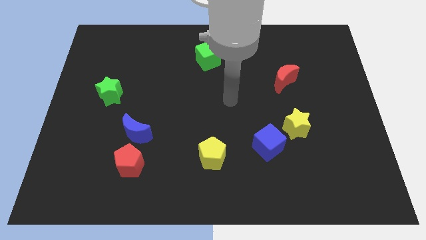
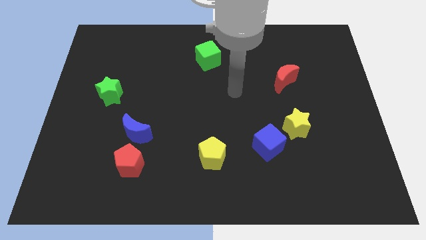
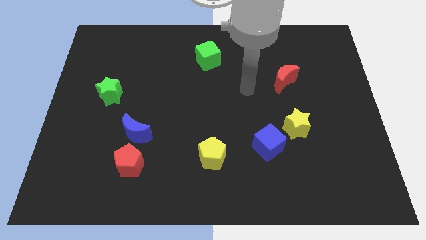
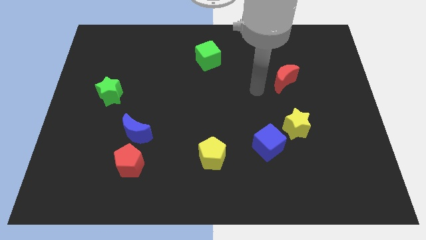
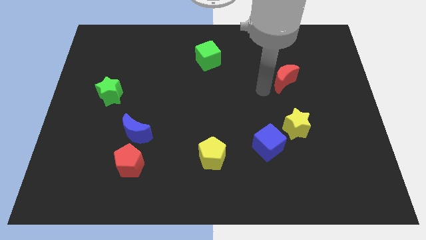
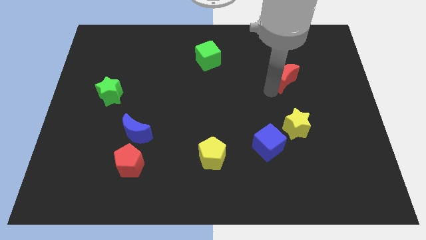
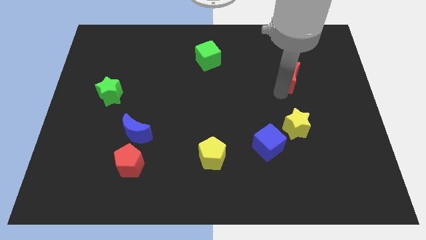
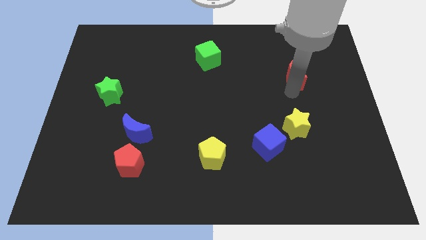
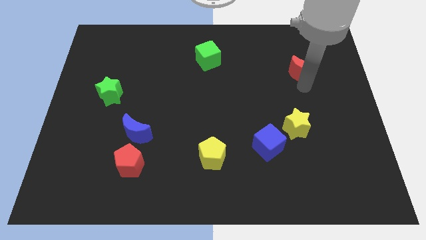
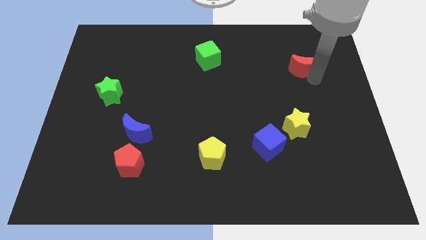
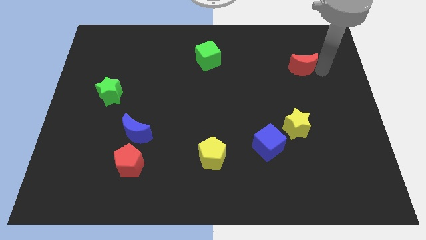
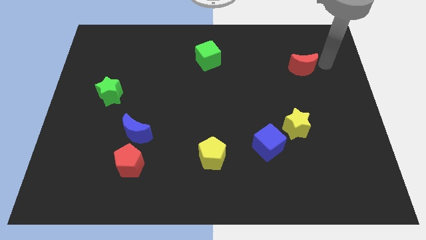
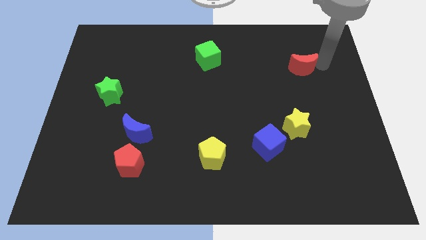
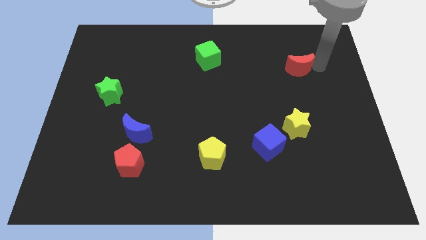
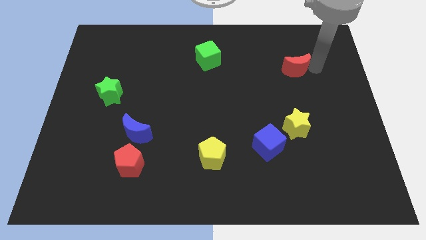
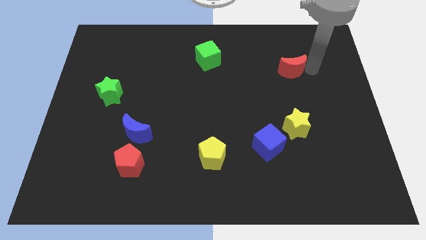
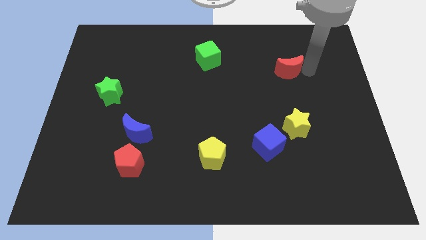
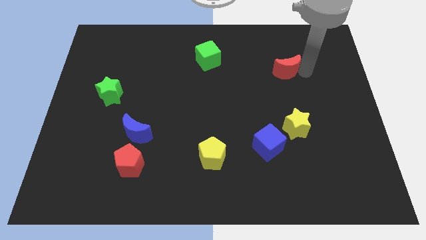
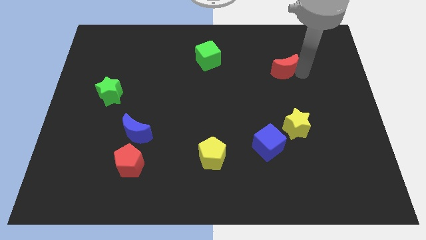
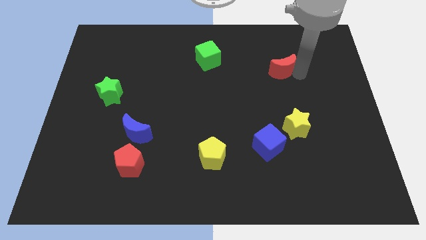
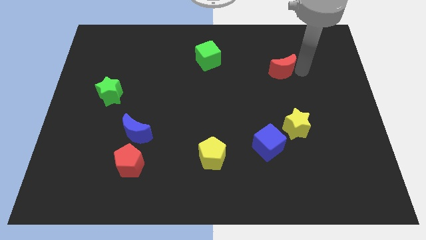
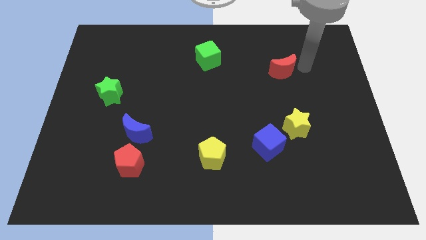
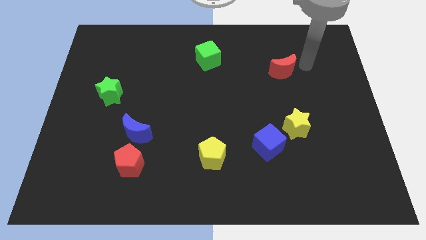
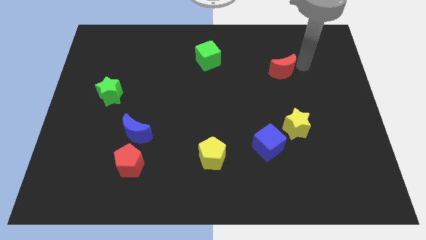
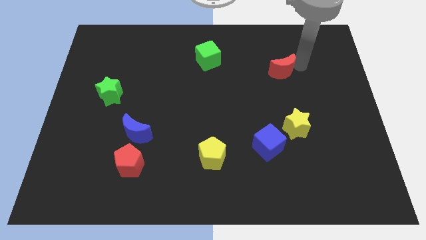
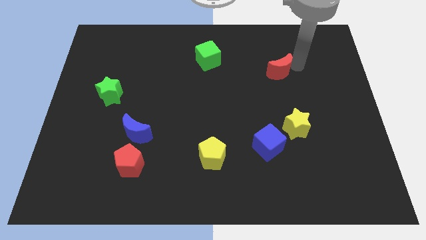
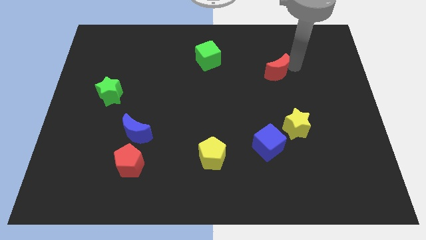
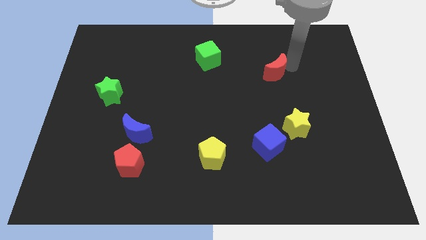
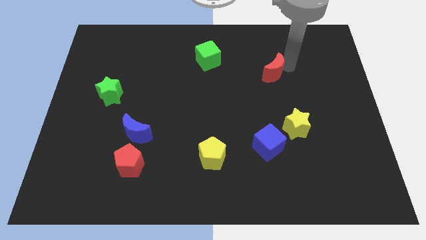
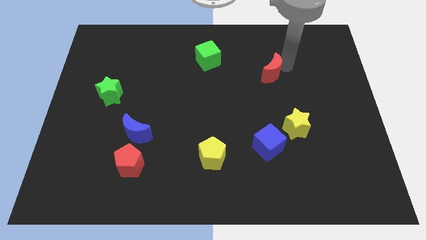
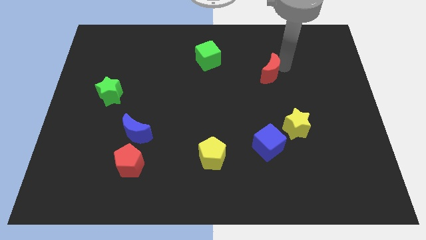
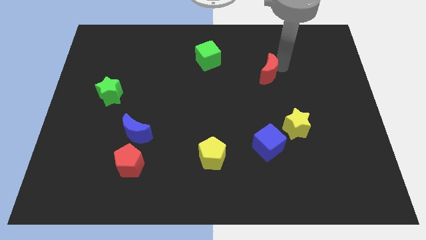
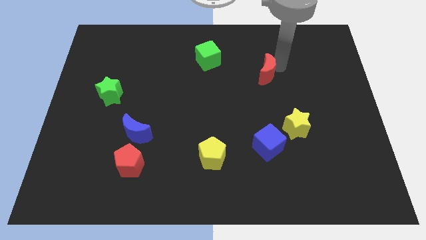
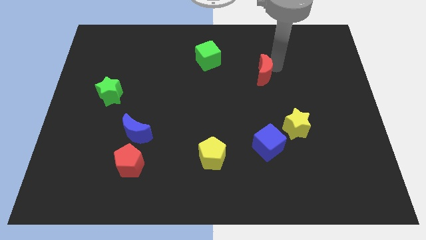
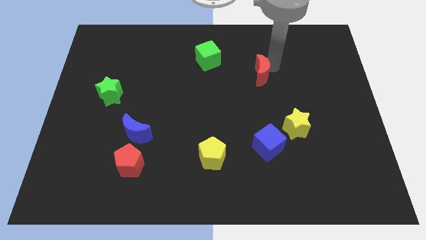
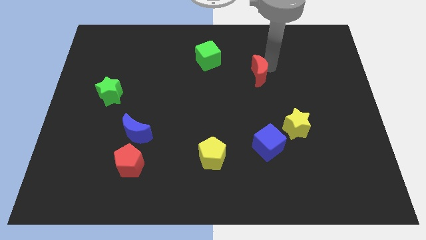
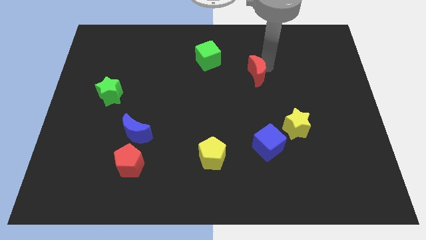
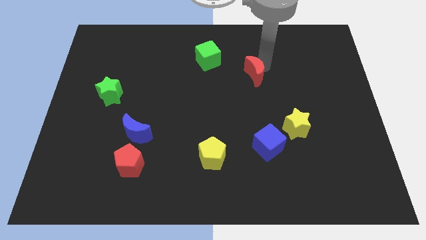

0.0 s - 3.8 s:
slide the red moon slightly left

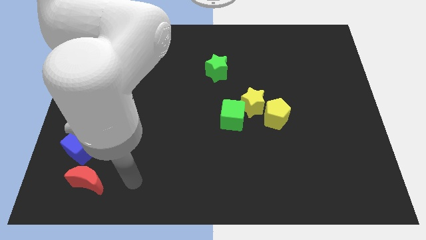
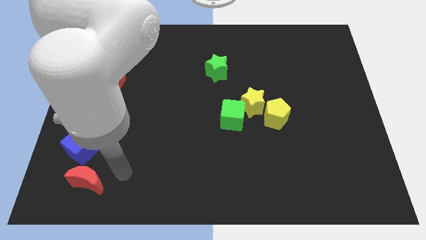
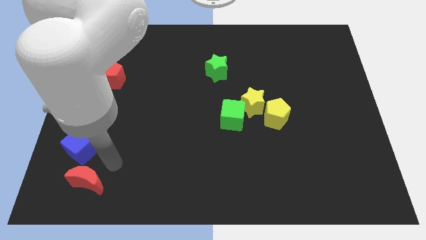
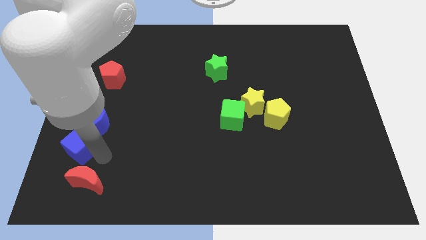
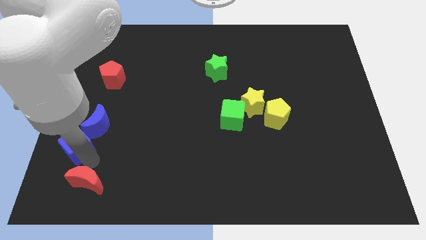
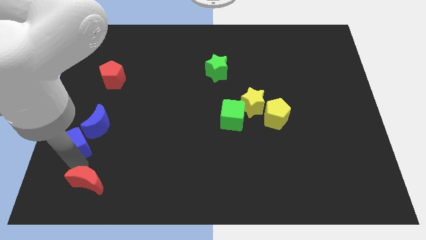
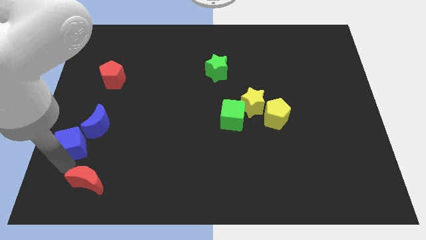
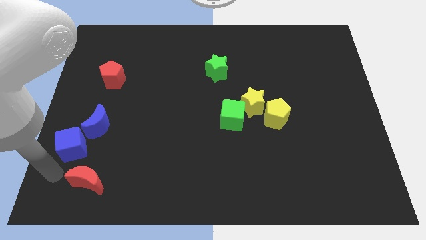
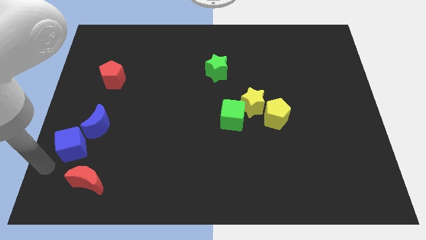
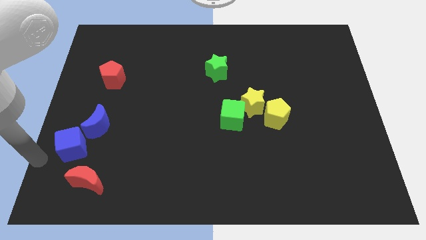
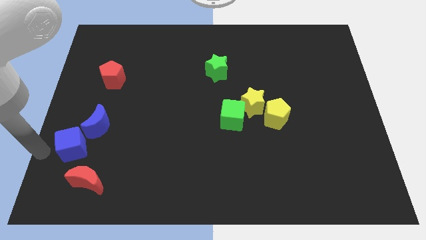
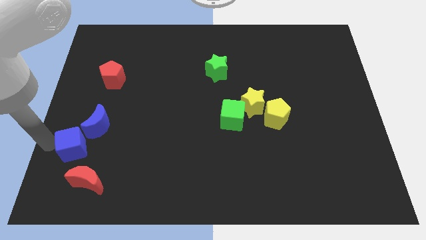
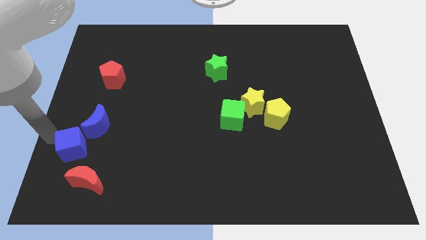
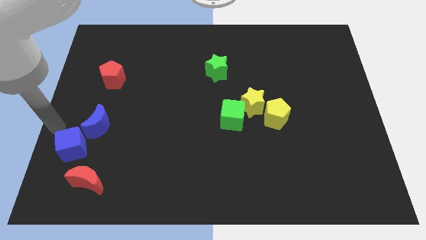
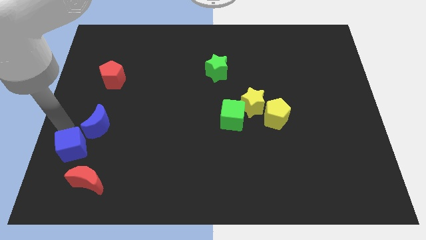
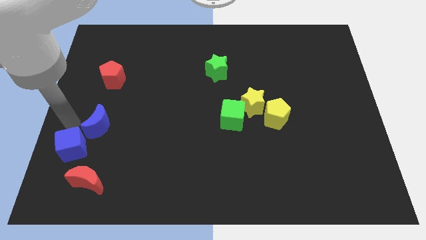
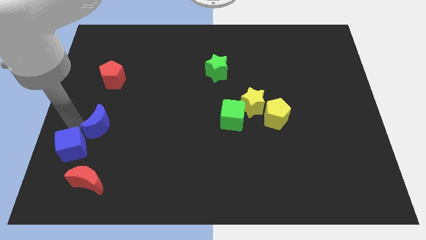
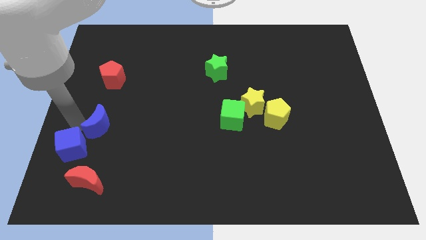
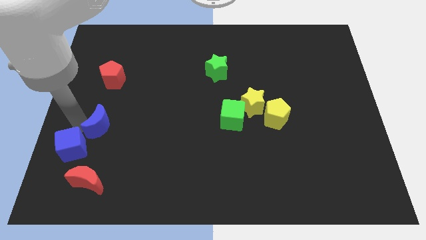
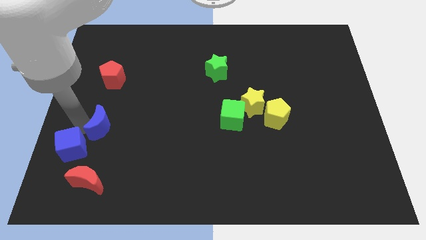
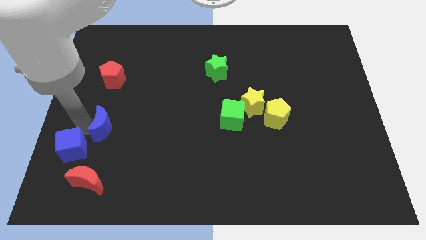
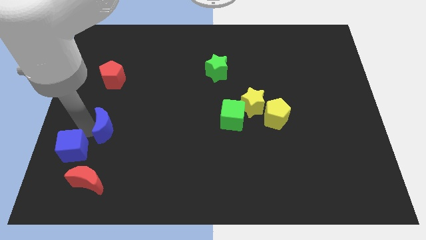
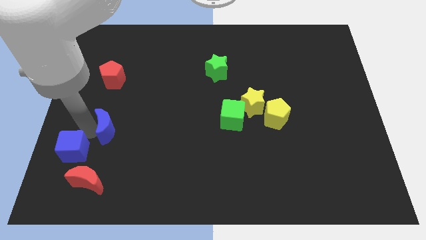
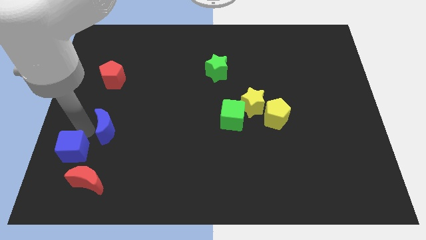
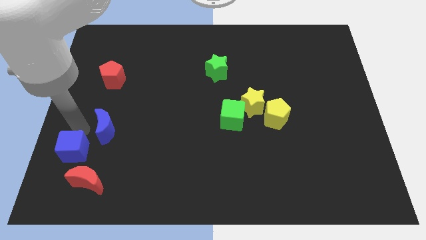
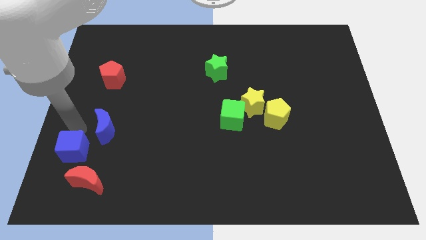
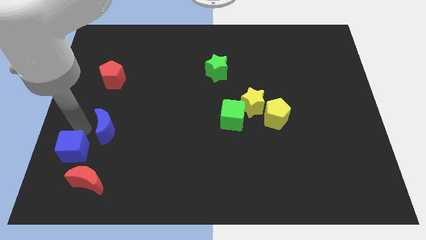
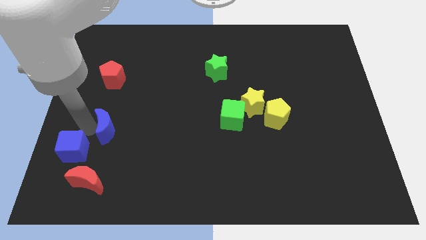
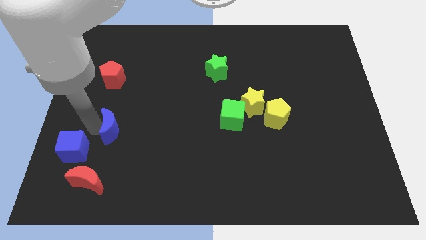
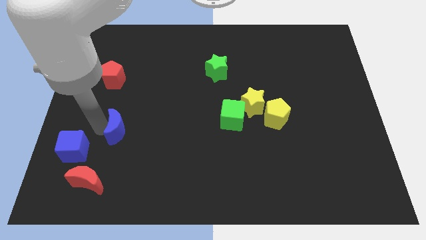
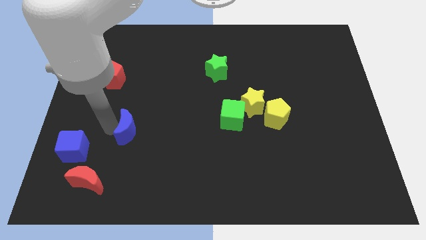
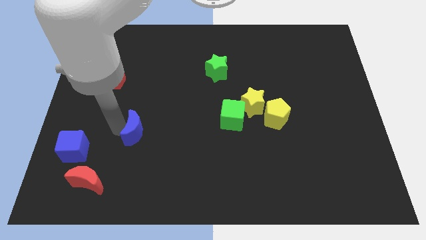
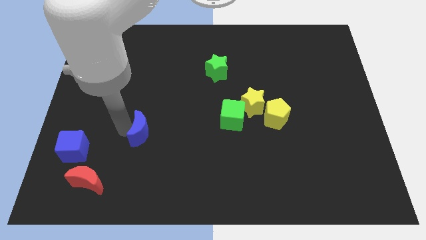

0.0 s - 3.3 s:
push the blue moon a bit downwards and then to the right

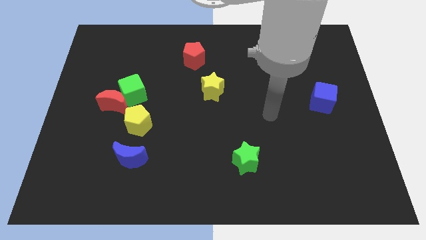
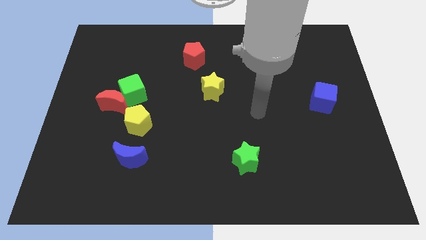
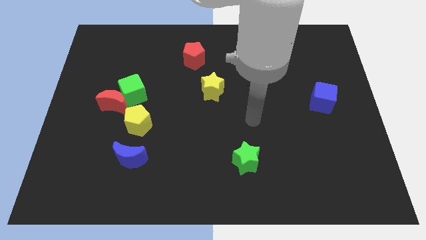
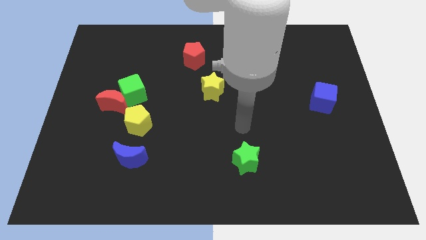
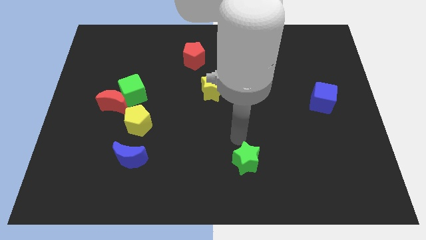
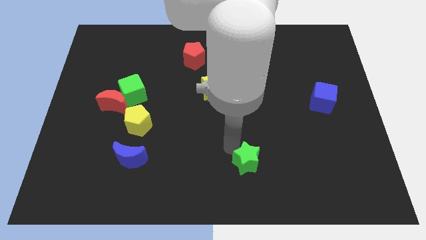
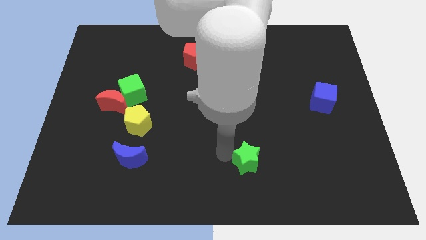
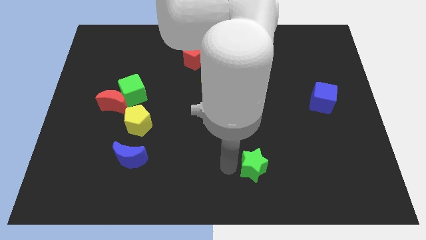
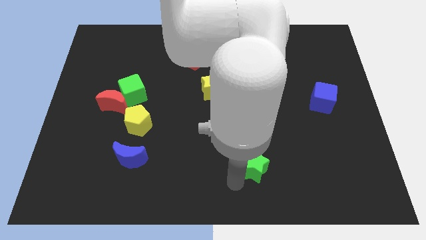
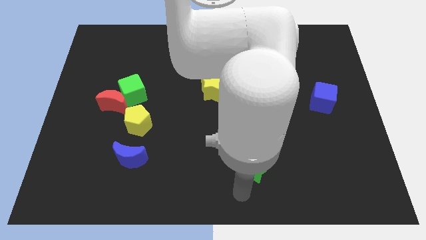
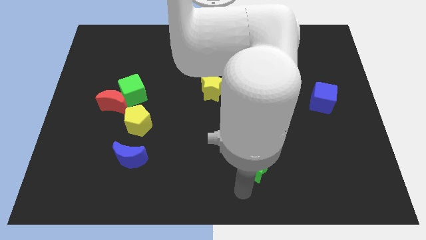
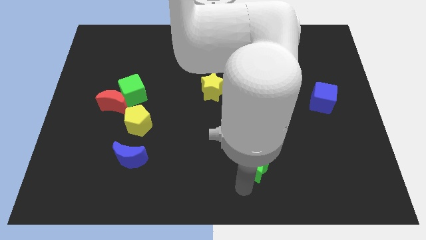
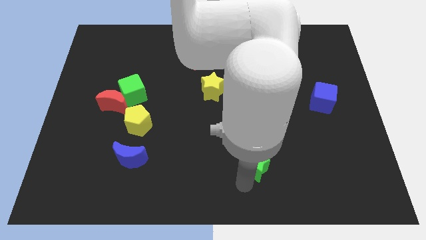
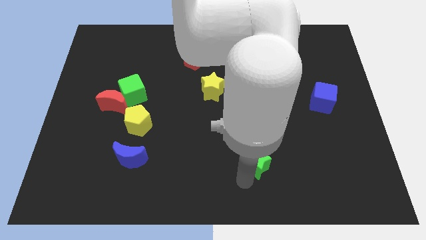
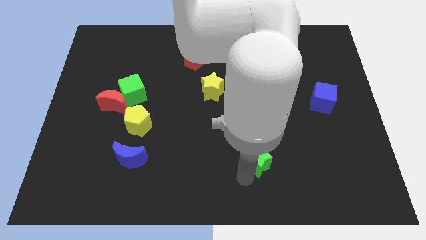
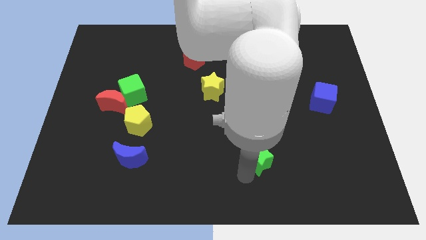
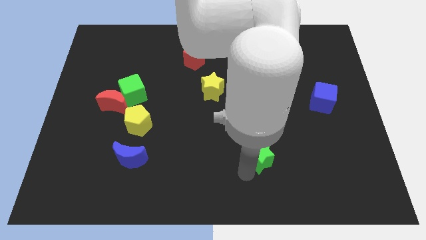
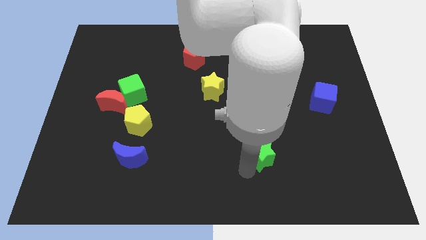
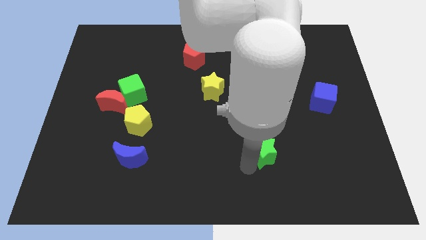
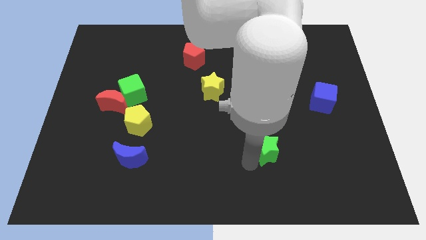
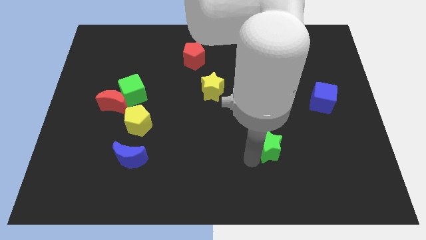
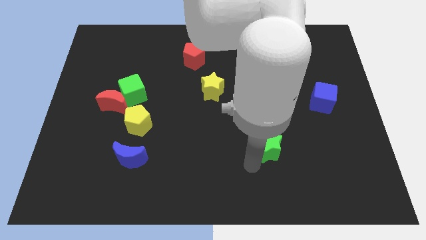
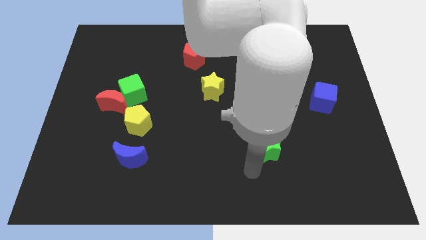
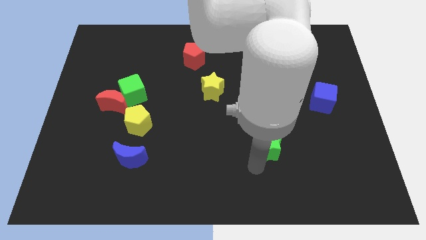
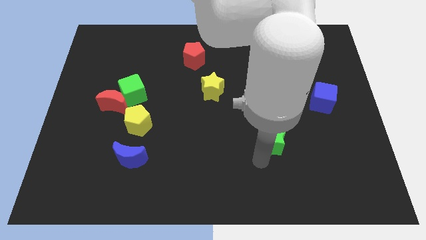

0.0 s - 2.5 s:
slightly push the green star up and right diagonally
